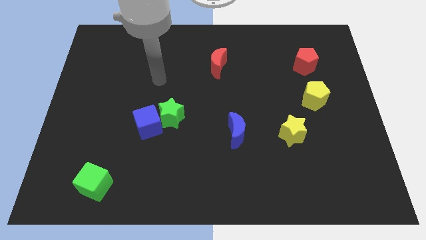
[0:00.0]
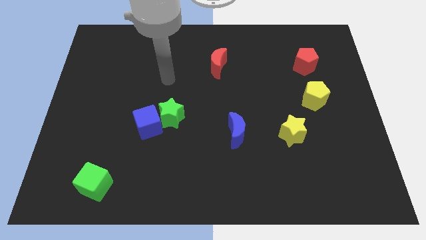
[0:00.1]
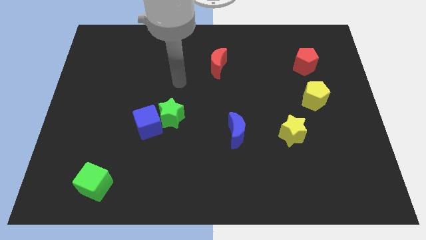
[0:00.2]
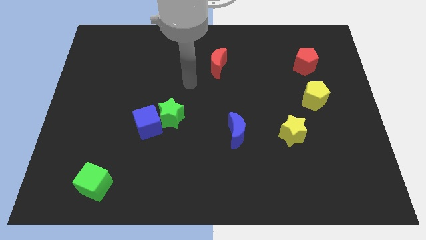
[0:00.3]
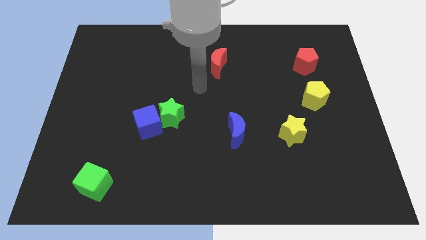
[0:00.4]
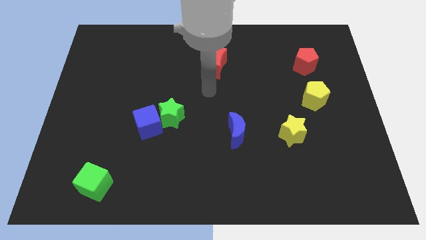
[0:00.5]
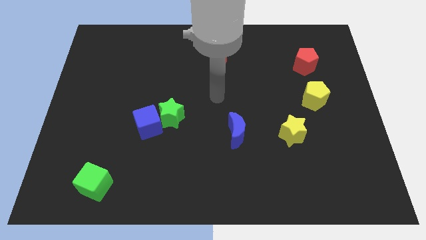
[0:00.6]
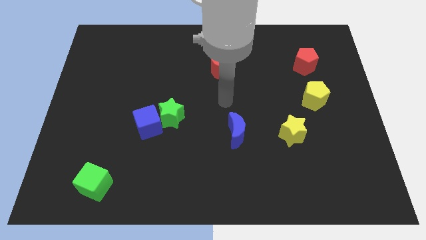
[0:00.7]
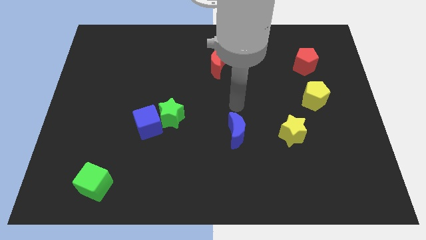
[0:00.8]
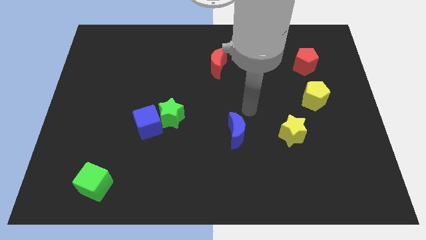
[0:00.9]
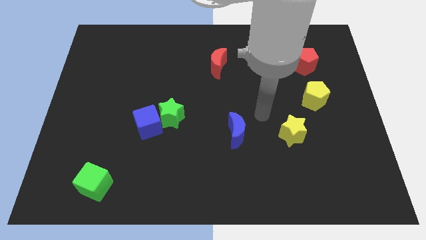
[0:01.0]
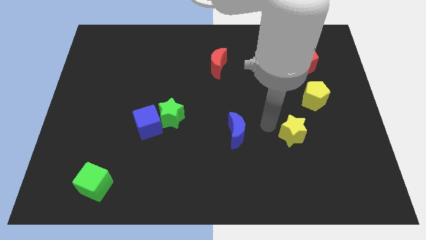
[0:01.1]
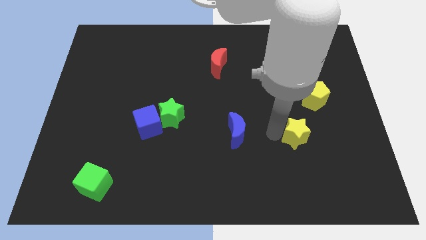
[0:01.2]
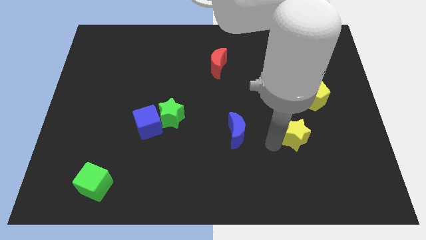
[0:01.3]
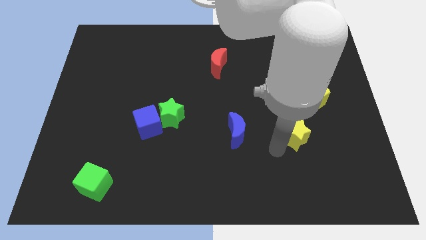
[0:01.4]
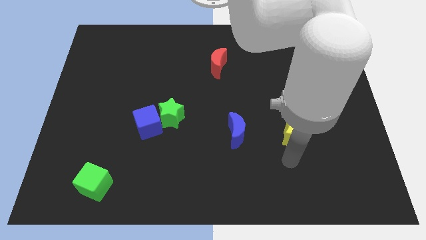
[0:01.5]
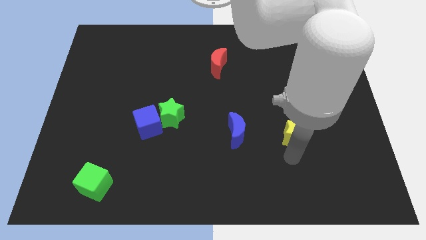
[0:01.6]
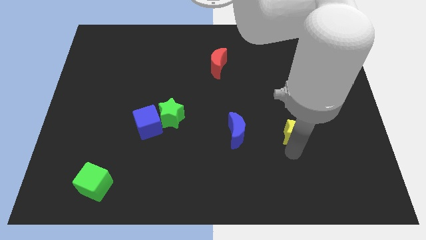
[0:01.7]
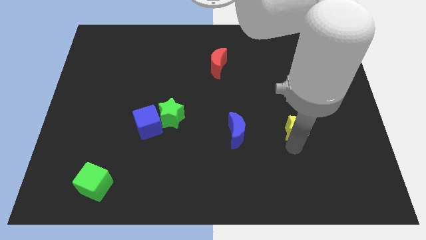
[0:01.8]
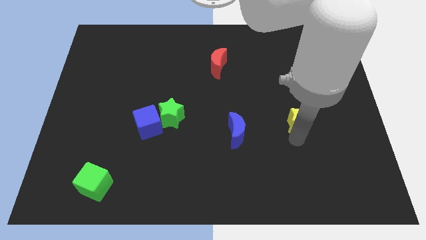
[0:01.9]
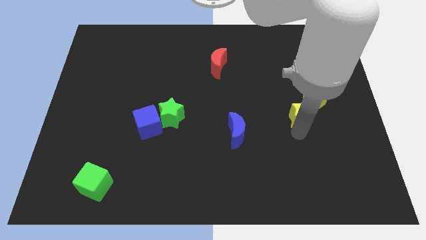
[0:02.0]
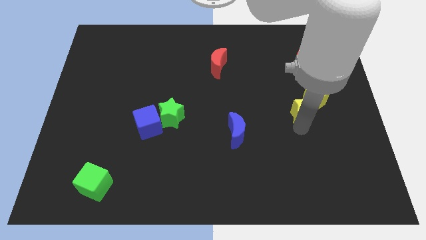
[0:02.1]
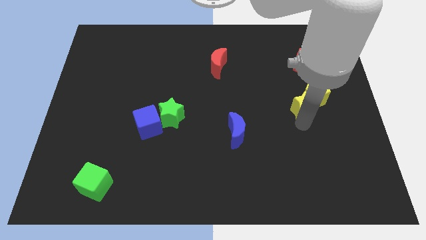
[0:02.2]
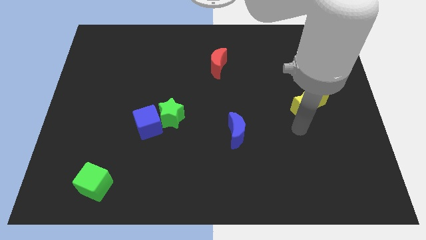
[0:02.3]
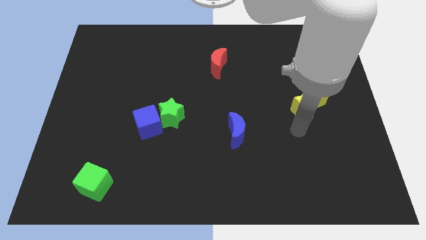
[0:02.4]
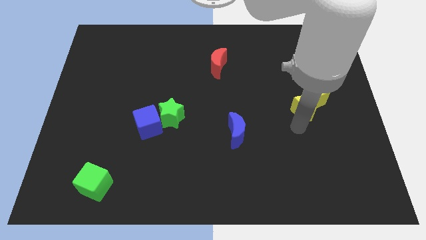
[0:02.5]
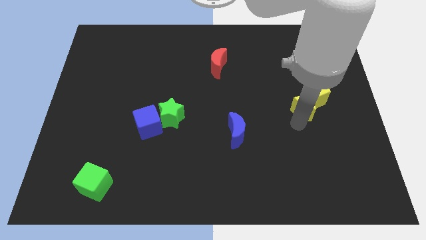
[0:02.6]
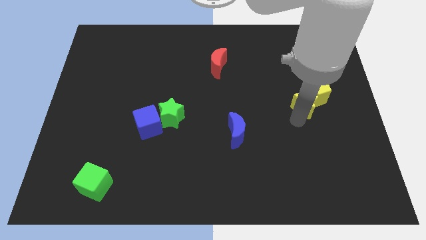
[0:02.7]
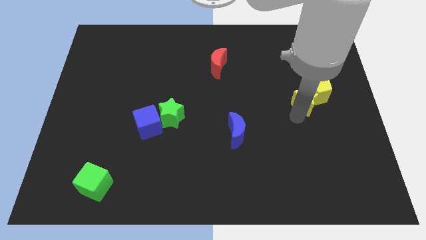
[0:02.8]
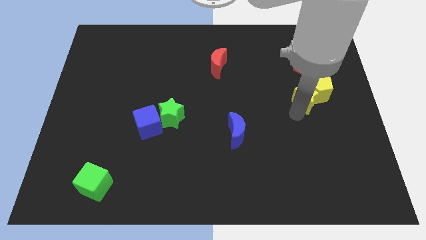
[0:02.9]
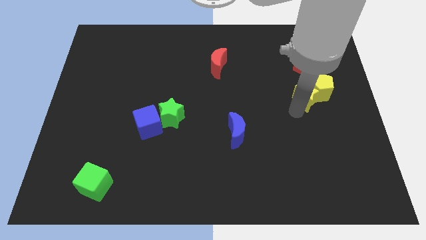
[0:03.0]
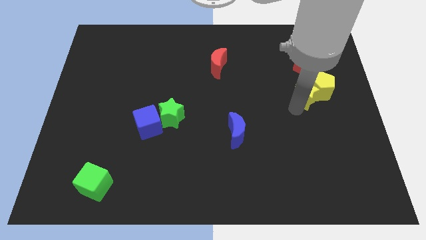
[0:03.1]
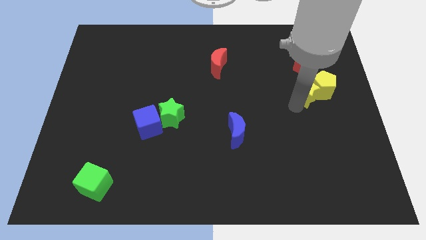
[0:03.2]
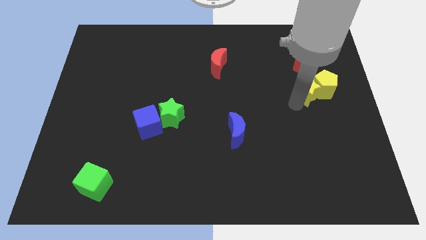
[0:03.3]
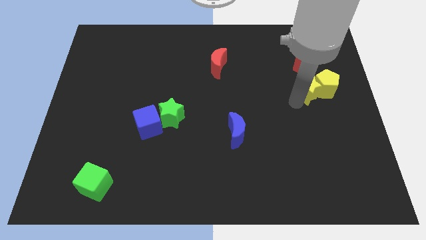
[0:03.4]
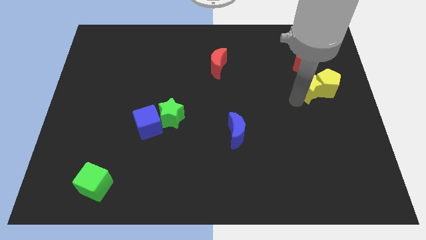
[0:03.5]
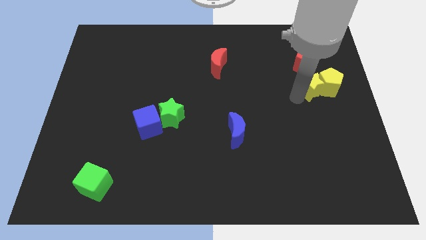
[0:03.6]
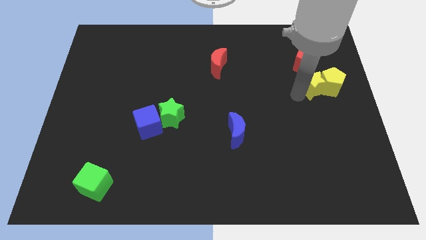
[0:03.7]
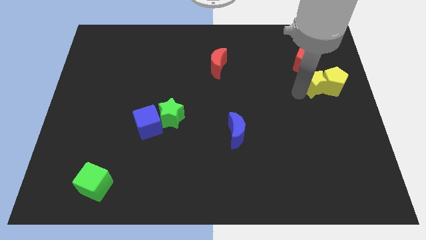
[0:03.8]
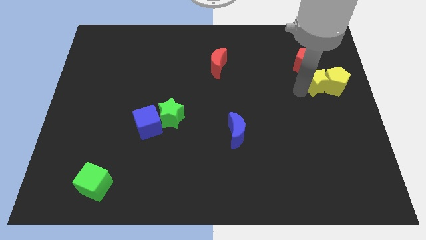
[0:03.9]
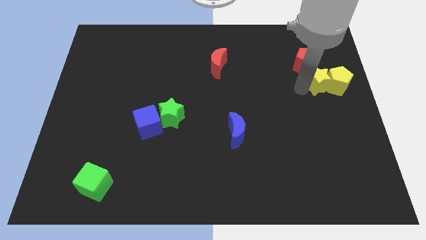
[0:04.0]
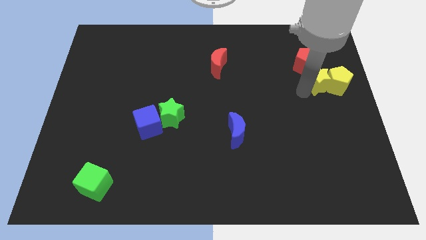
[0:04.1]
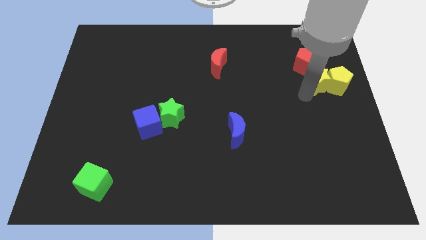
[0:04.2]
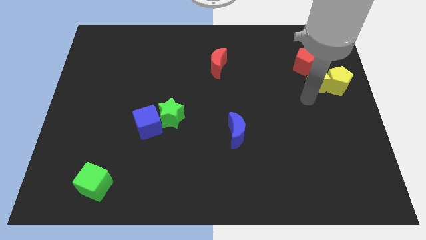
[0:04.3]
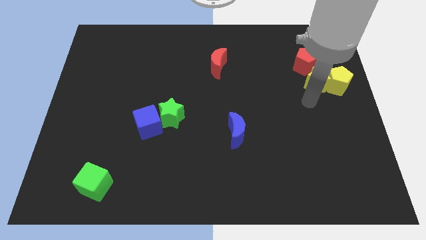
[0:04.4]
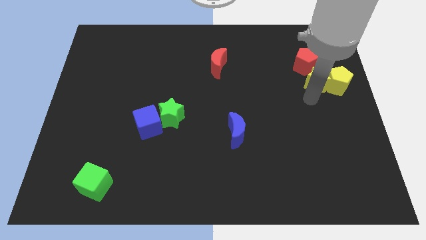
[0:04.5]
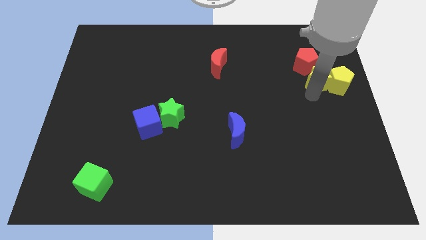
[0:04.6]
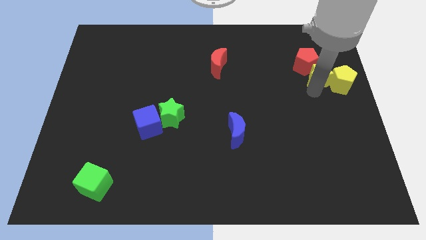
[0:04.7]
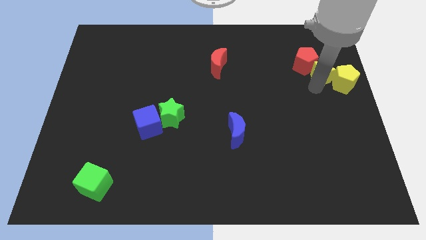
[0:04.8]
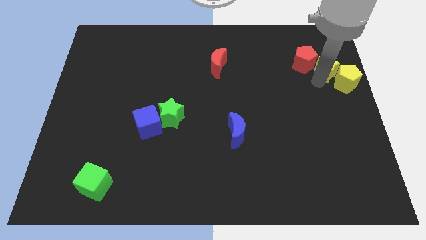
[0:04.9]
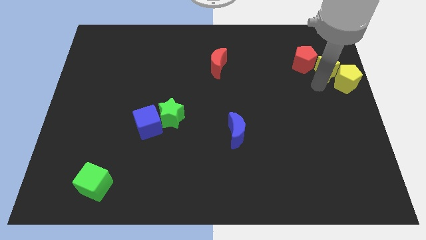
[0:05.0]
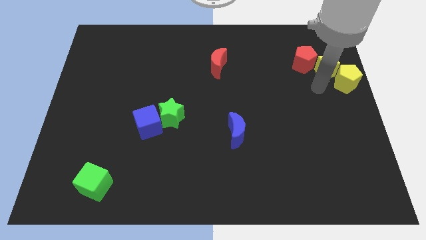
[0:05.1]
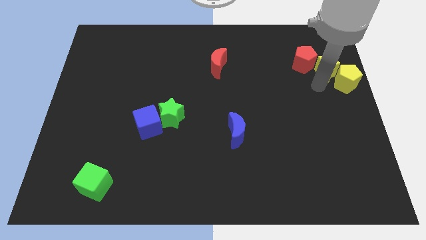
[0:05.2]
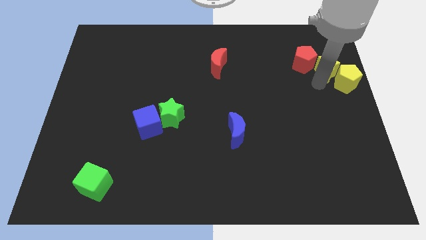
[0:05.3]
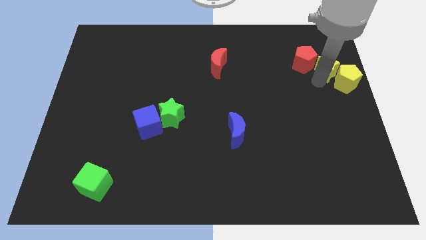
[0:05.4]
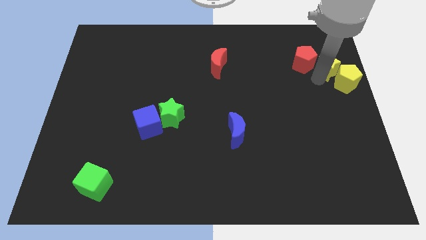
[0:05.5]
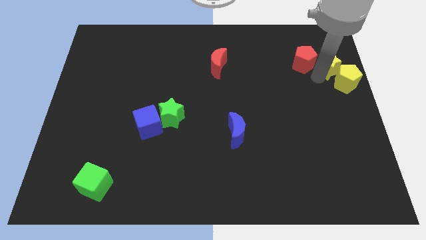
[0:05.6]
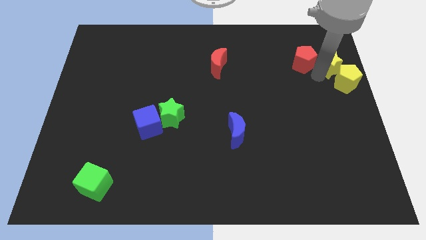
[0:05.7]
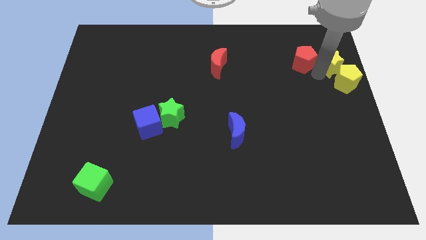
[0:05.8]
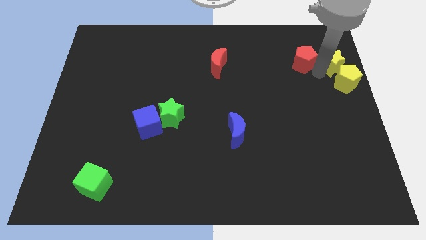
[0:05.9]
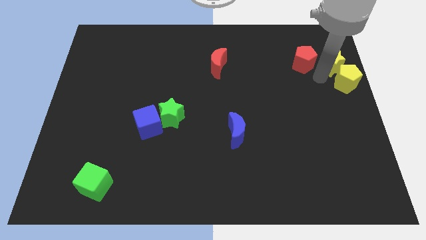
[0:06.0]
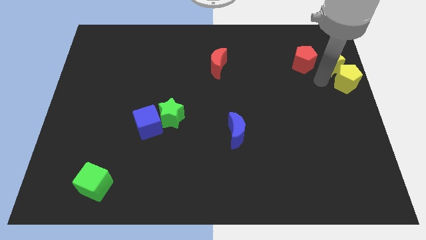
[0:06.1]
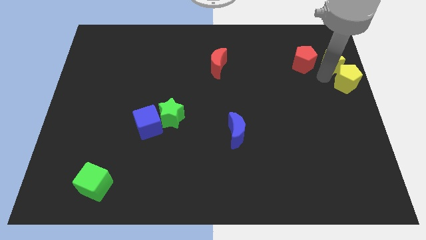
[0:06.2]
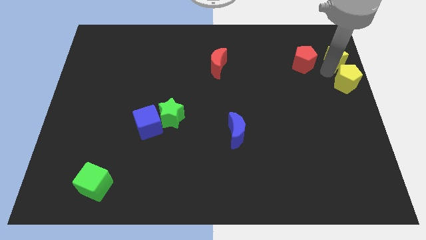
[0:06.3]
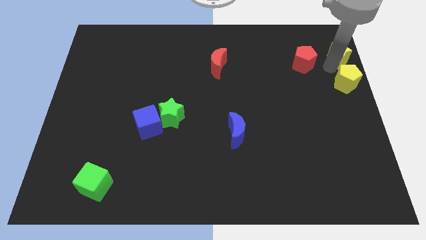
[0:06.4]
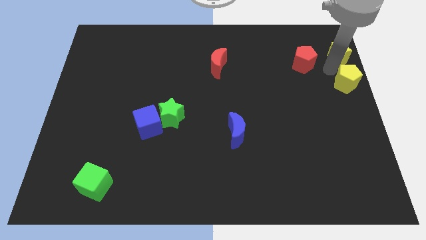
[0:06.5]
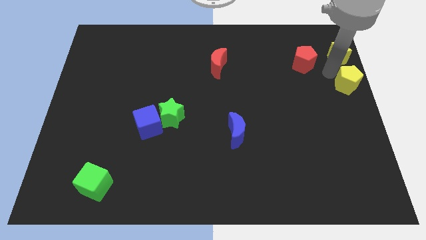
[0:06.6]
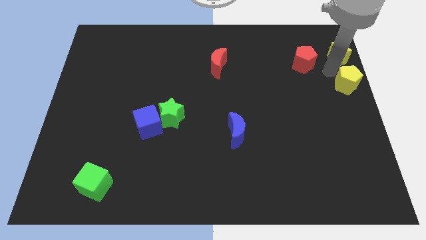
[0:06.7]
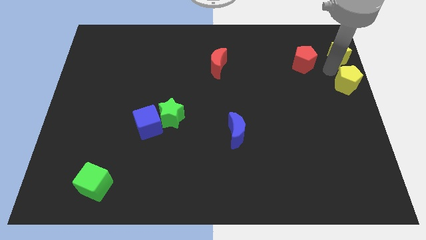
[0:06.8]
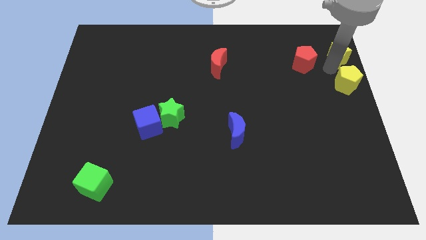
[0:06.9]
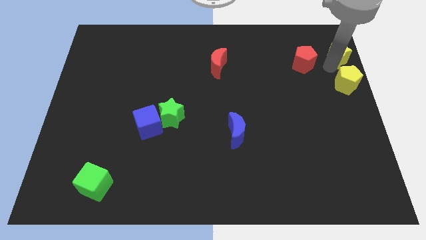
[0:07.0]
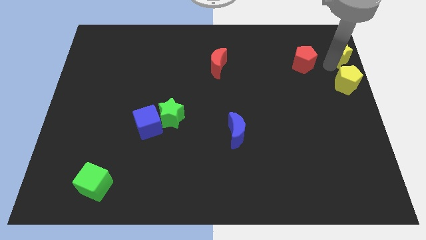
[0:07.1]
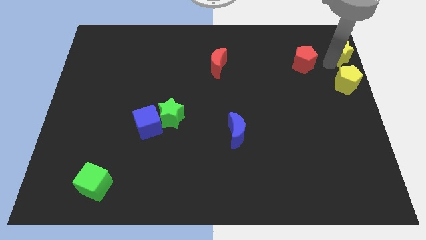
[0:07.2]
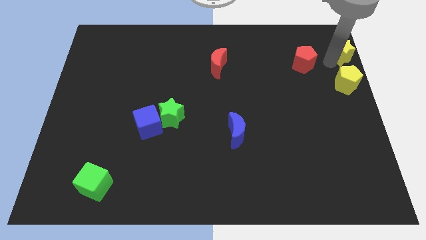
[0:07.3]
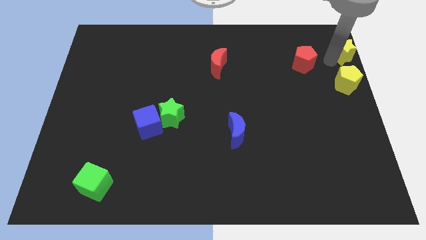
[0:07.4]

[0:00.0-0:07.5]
push the yellow star to the upper right corner
